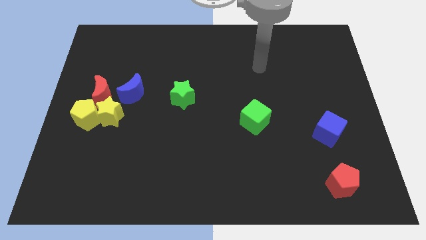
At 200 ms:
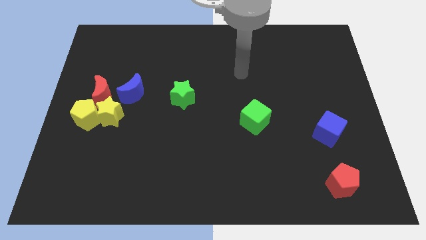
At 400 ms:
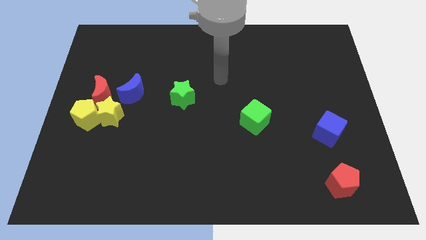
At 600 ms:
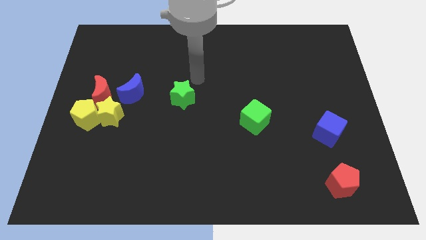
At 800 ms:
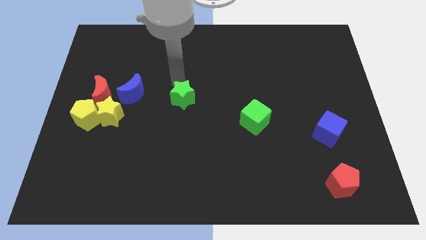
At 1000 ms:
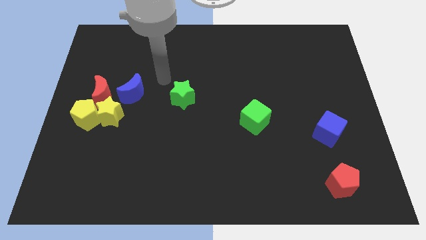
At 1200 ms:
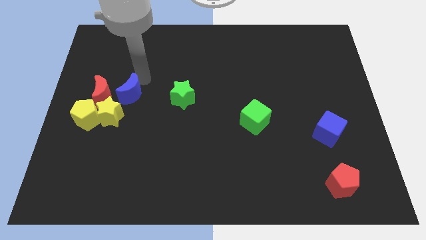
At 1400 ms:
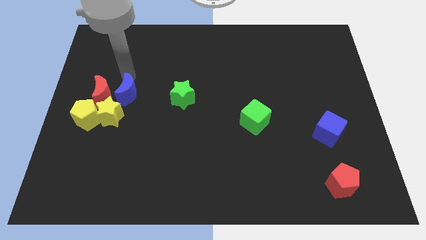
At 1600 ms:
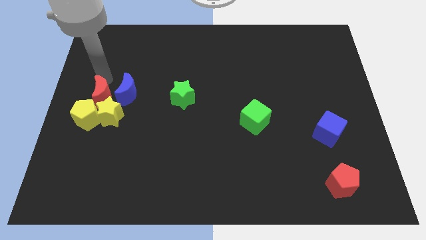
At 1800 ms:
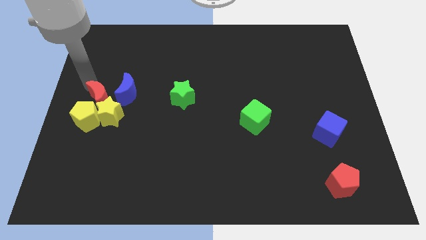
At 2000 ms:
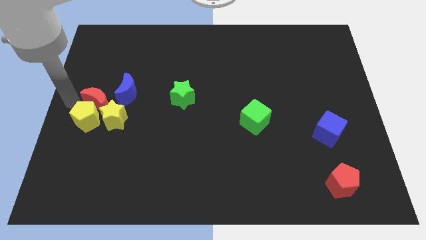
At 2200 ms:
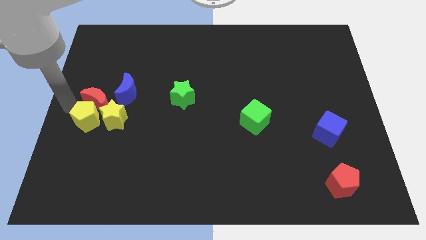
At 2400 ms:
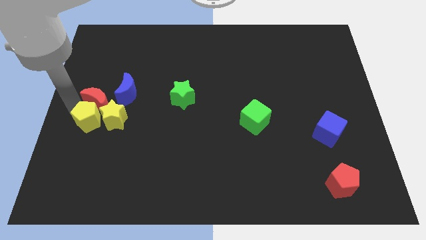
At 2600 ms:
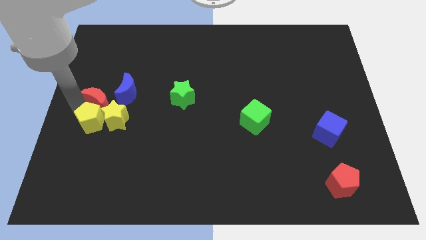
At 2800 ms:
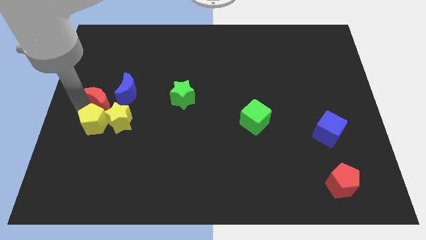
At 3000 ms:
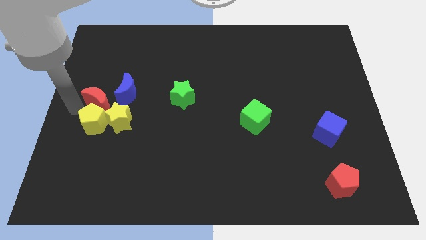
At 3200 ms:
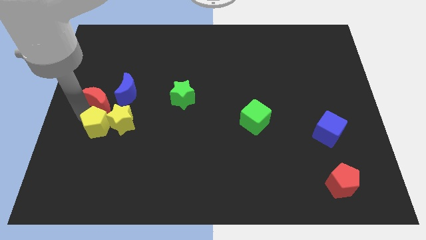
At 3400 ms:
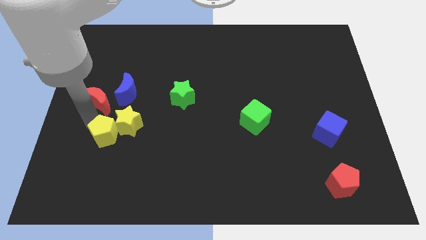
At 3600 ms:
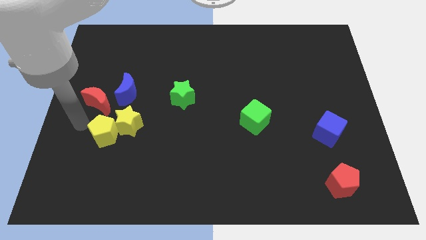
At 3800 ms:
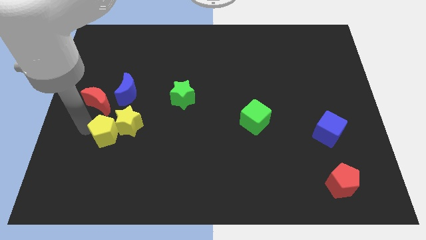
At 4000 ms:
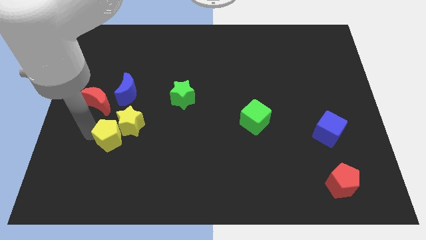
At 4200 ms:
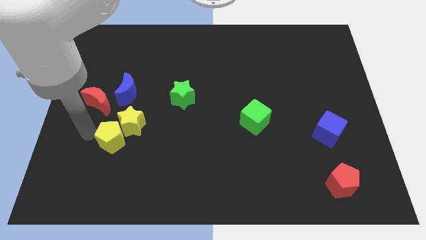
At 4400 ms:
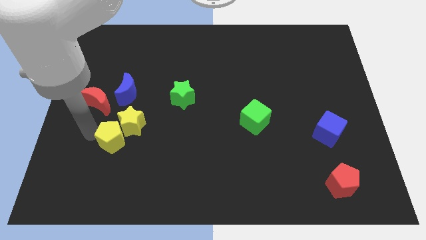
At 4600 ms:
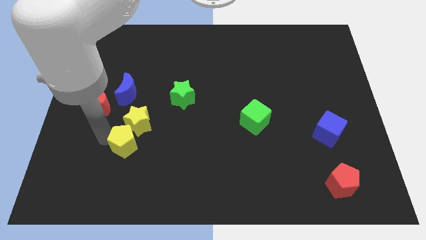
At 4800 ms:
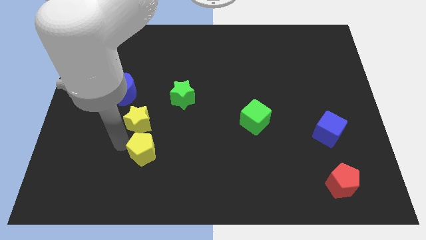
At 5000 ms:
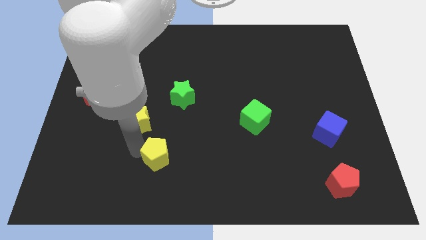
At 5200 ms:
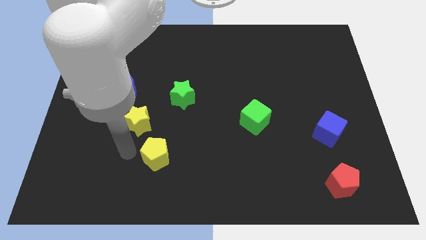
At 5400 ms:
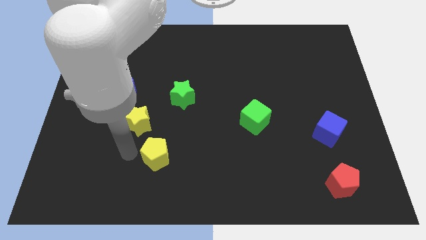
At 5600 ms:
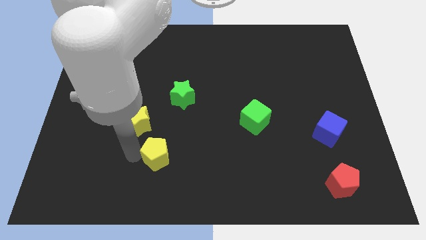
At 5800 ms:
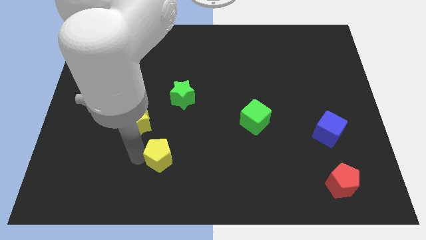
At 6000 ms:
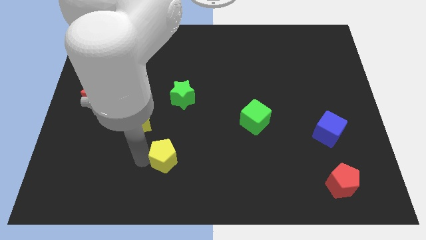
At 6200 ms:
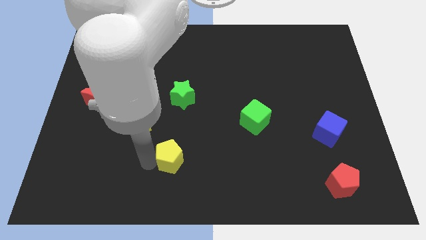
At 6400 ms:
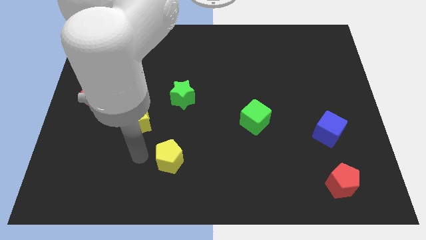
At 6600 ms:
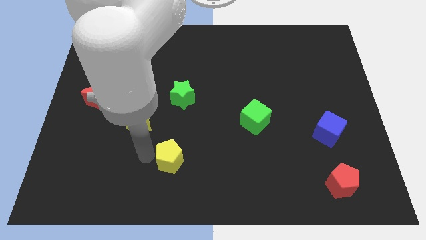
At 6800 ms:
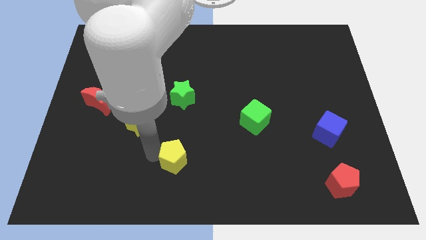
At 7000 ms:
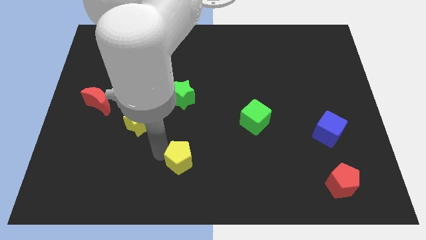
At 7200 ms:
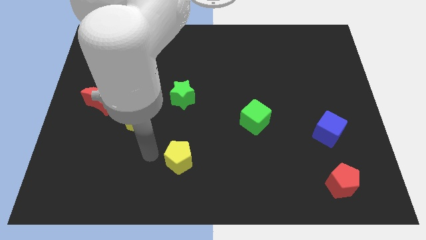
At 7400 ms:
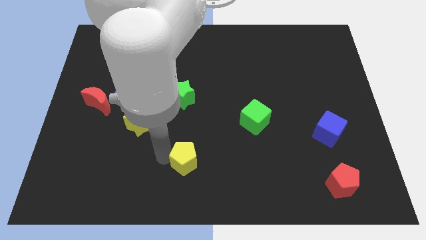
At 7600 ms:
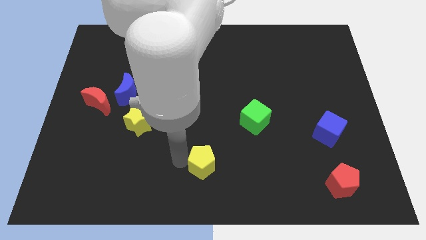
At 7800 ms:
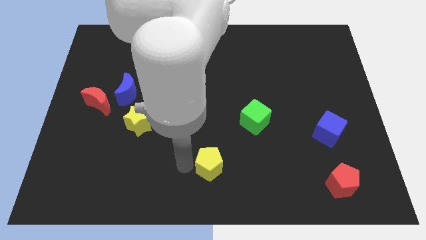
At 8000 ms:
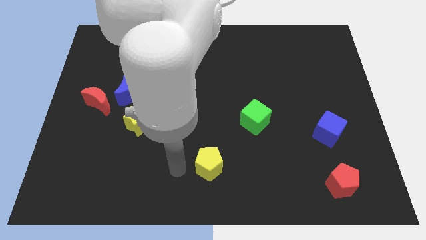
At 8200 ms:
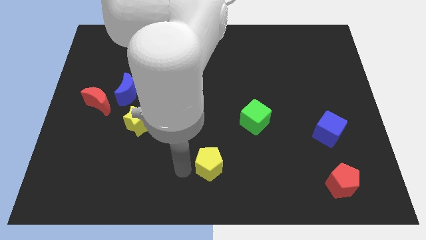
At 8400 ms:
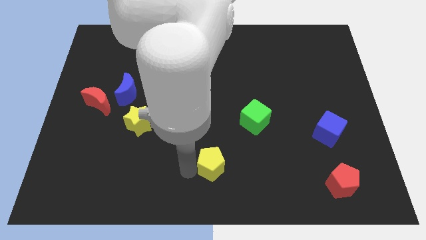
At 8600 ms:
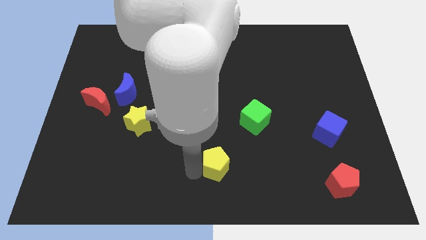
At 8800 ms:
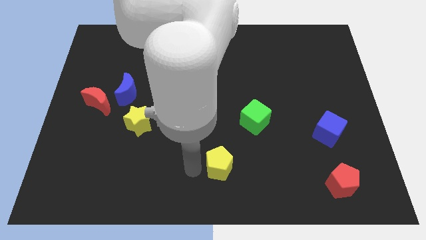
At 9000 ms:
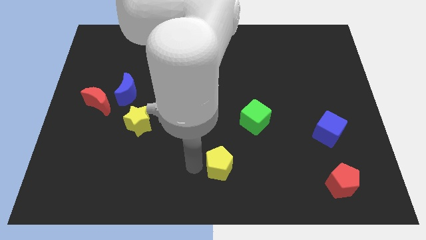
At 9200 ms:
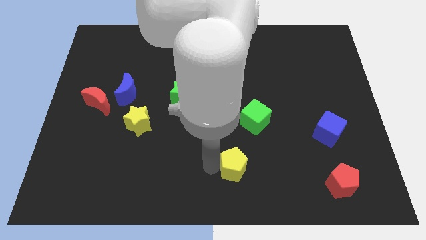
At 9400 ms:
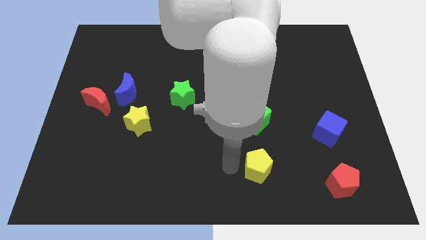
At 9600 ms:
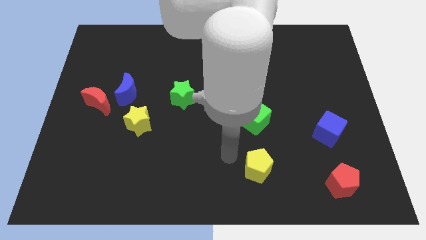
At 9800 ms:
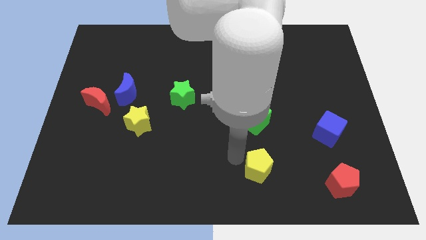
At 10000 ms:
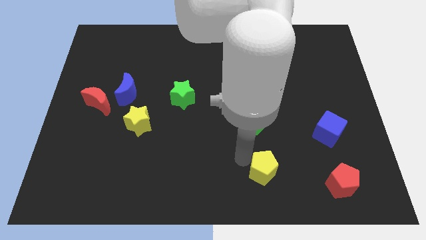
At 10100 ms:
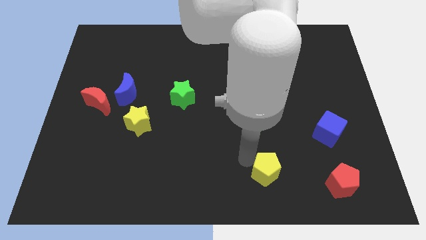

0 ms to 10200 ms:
push the yellow pentagon just left of the red pentagon

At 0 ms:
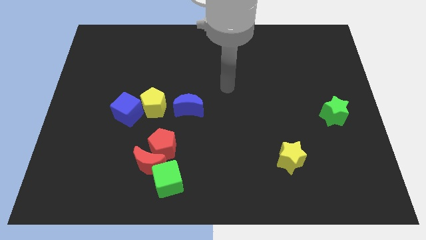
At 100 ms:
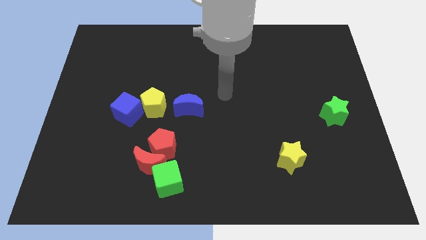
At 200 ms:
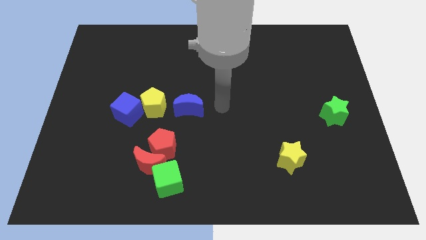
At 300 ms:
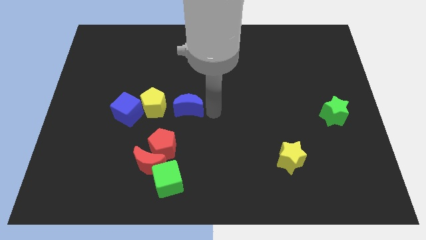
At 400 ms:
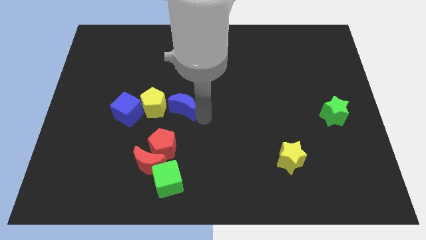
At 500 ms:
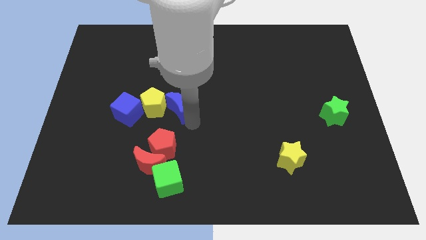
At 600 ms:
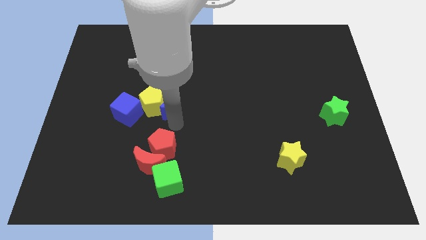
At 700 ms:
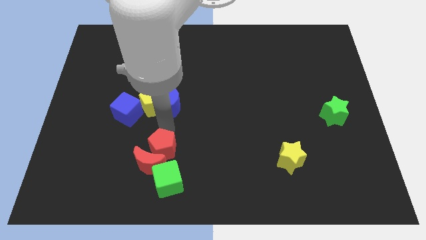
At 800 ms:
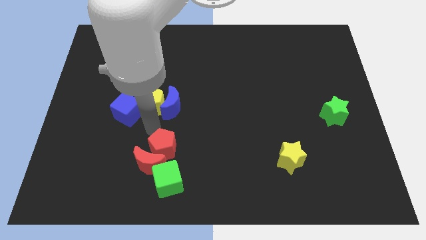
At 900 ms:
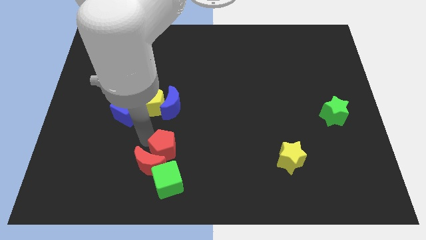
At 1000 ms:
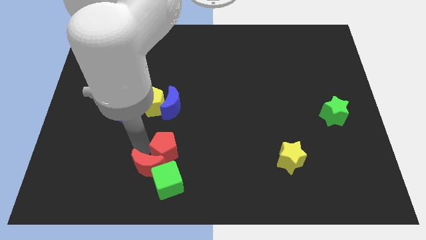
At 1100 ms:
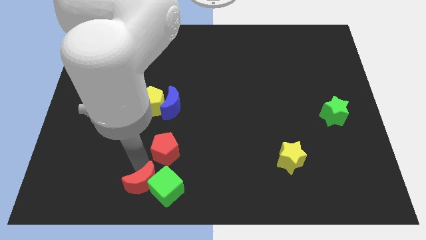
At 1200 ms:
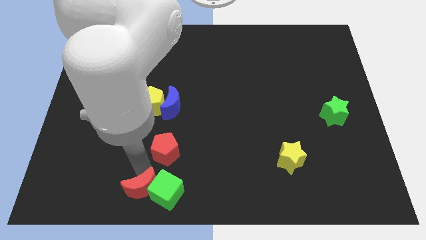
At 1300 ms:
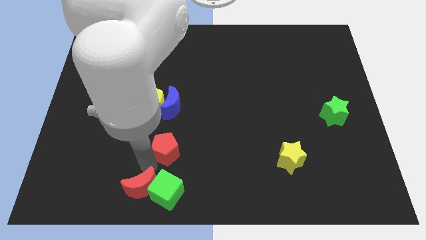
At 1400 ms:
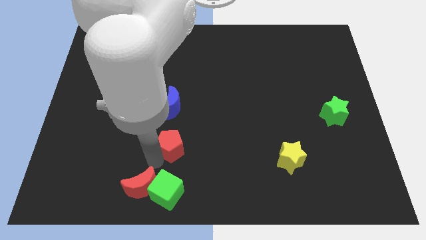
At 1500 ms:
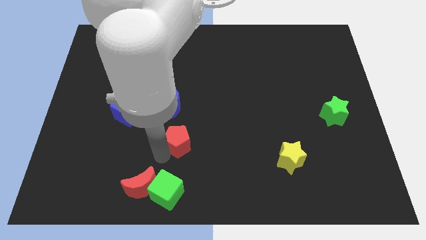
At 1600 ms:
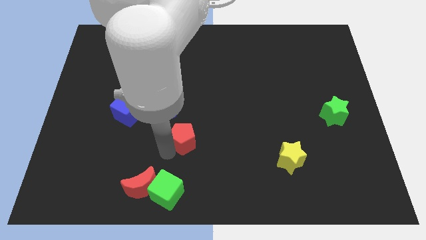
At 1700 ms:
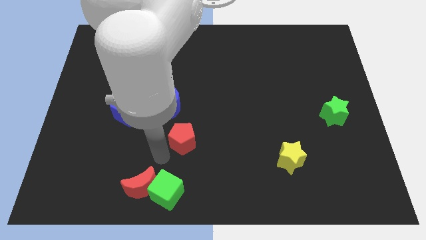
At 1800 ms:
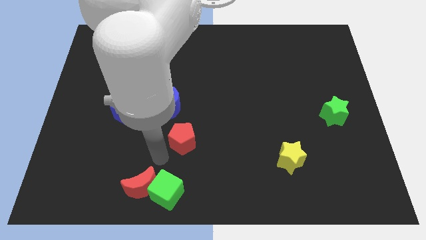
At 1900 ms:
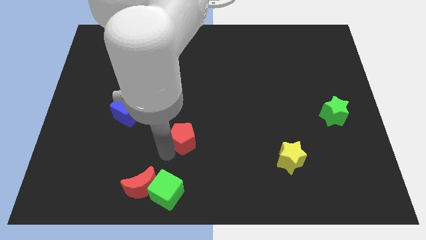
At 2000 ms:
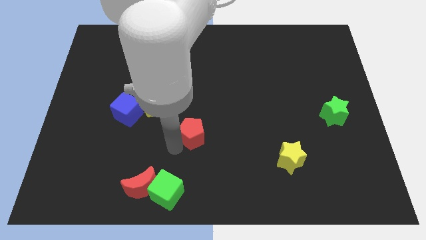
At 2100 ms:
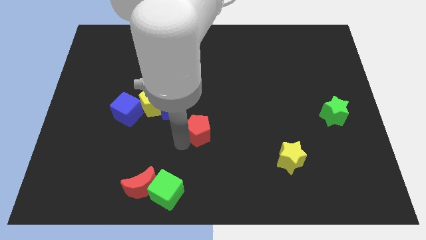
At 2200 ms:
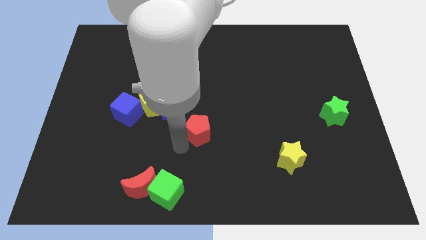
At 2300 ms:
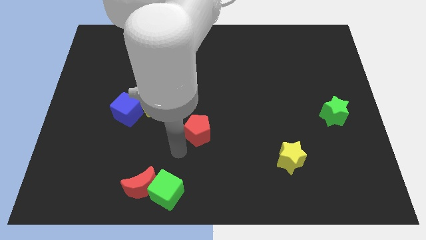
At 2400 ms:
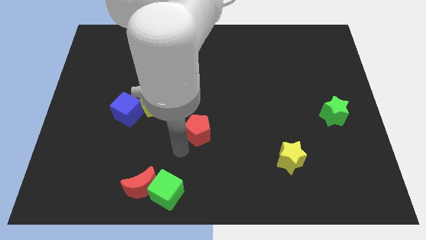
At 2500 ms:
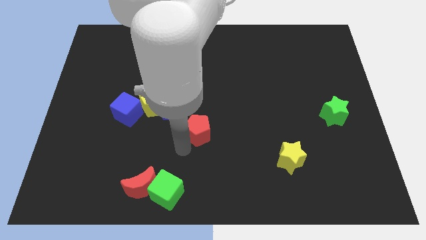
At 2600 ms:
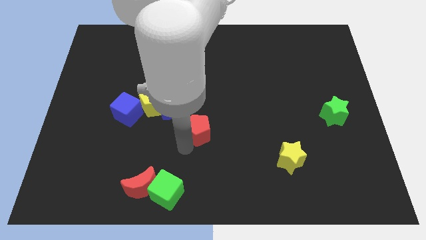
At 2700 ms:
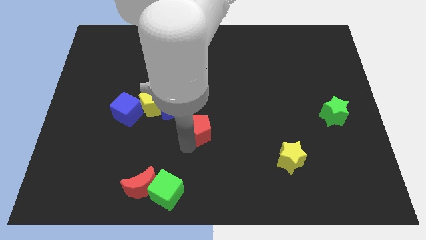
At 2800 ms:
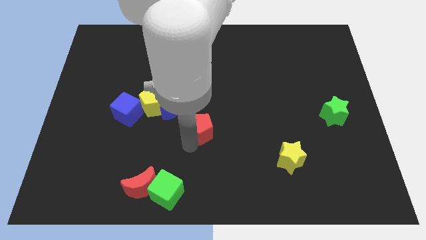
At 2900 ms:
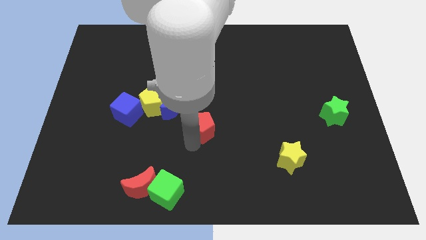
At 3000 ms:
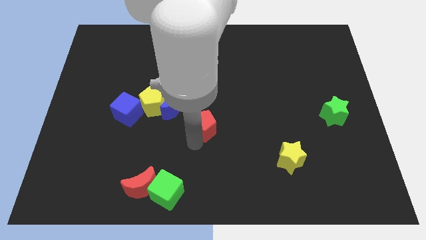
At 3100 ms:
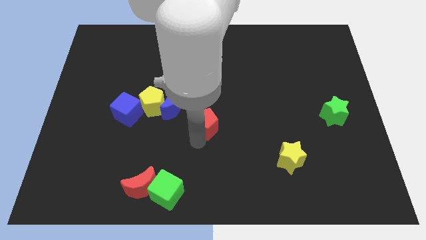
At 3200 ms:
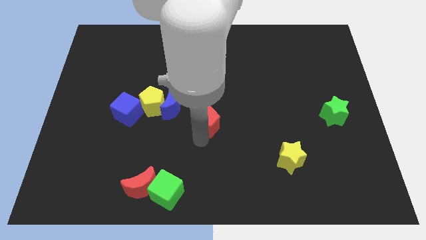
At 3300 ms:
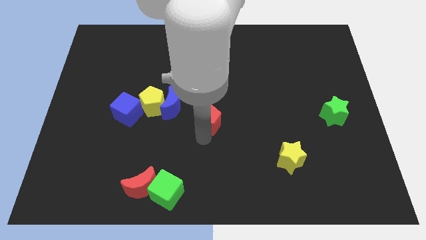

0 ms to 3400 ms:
move the red pentagon to the right side of the blue moon
